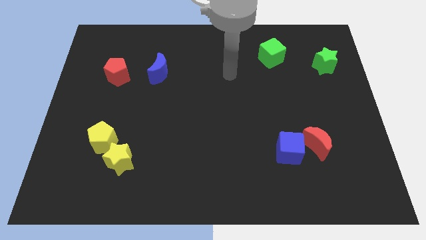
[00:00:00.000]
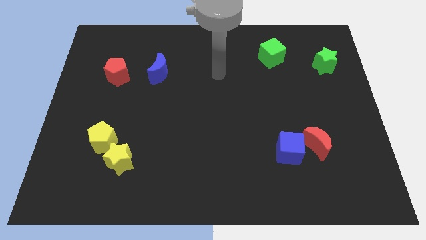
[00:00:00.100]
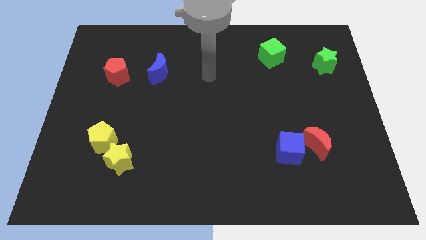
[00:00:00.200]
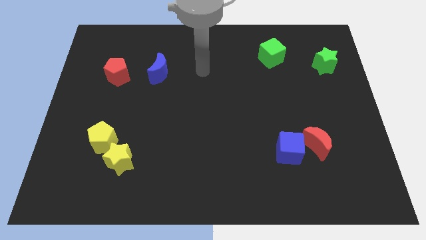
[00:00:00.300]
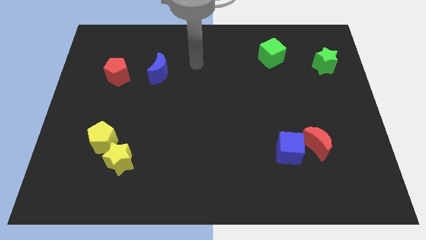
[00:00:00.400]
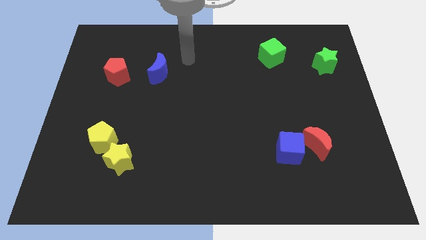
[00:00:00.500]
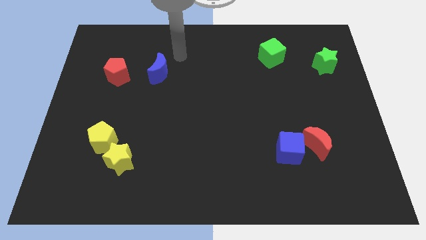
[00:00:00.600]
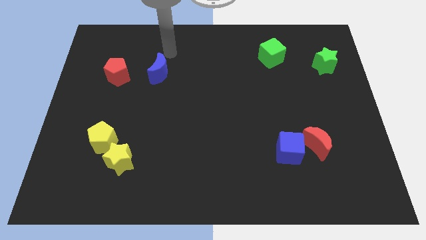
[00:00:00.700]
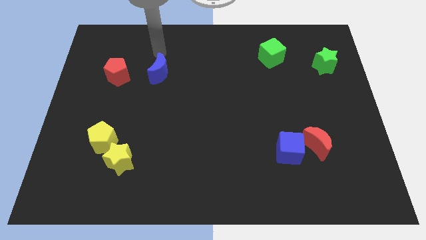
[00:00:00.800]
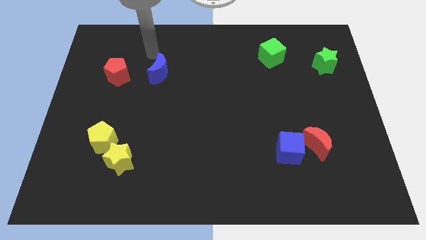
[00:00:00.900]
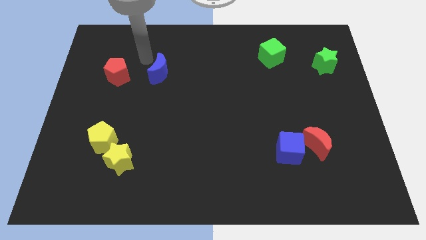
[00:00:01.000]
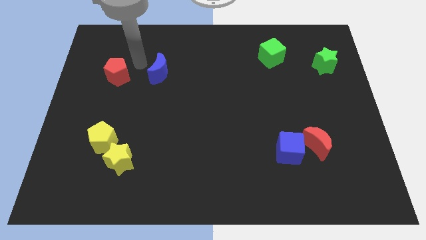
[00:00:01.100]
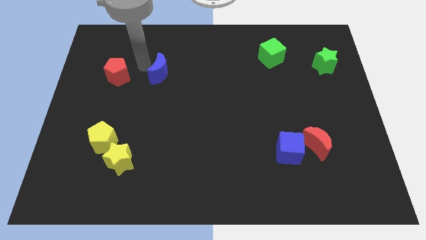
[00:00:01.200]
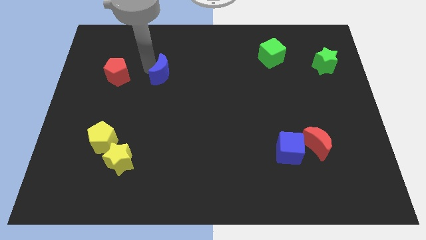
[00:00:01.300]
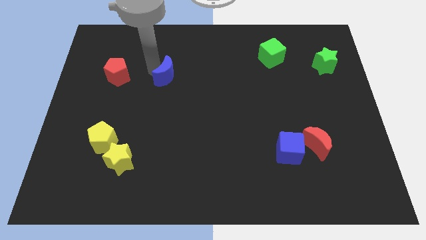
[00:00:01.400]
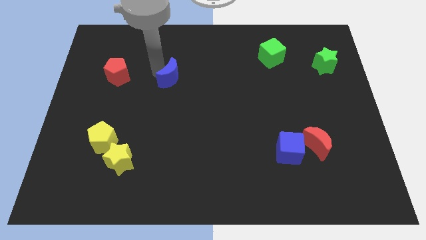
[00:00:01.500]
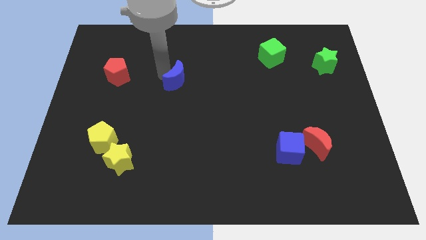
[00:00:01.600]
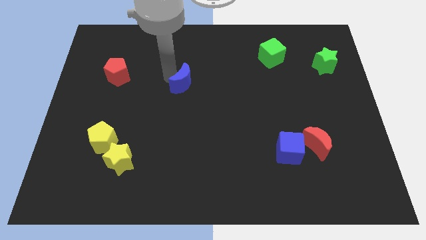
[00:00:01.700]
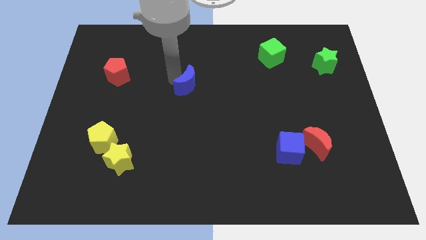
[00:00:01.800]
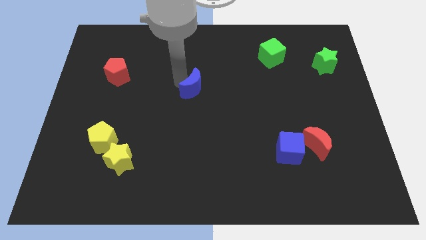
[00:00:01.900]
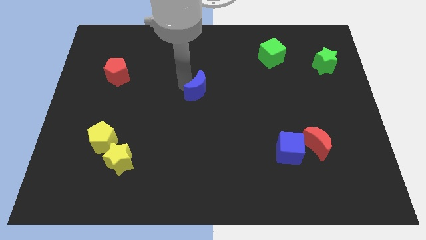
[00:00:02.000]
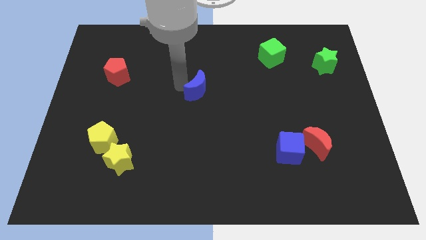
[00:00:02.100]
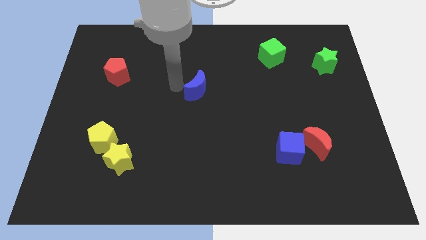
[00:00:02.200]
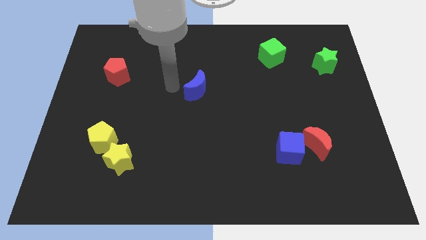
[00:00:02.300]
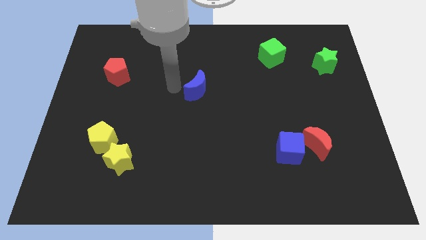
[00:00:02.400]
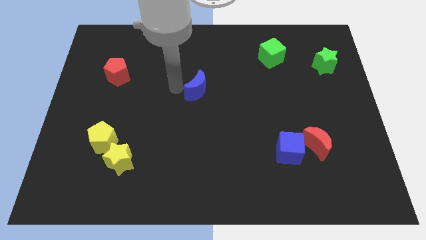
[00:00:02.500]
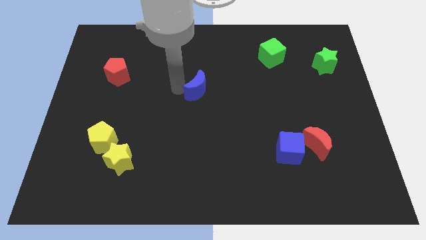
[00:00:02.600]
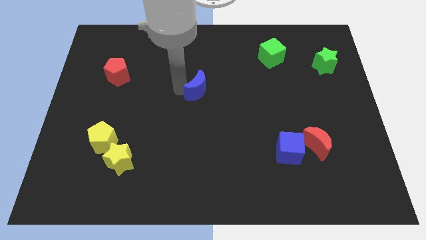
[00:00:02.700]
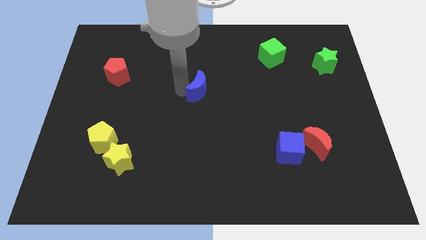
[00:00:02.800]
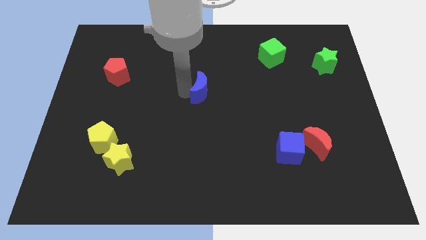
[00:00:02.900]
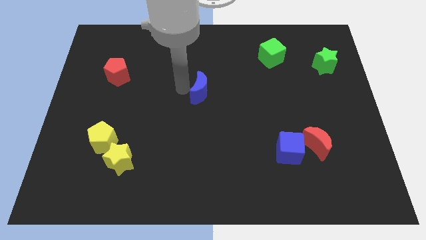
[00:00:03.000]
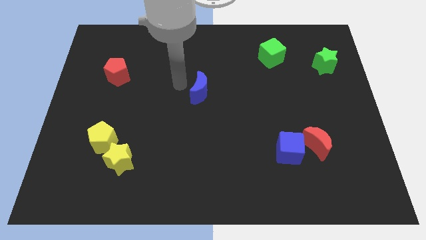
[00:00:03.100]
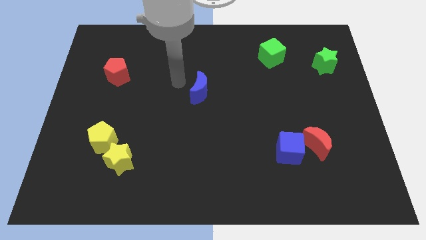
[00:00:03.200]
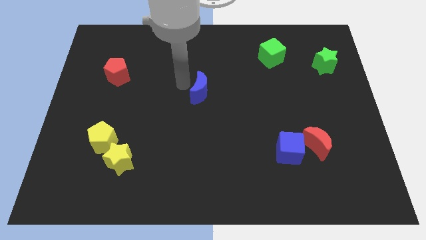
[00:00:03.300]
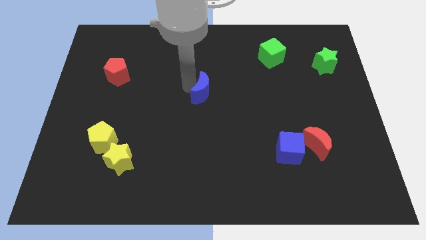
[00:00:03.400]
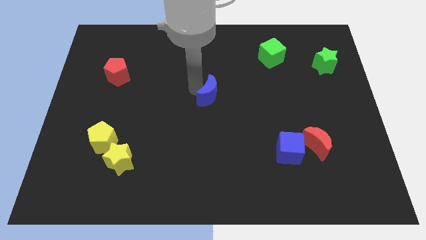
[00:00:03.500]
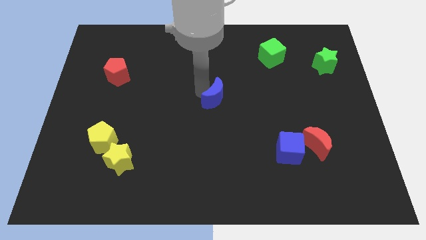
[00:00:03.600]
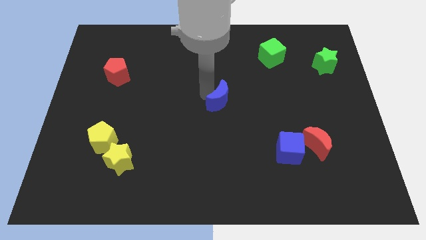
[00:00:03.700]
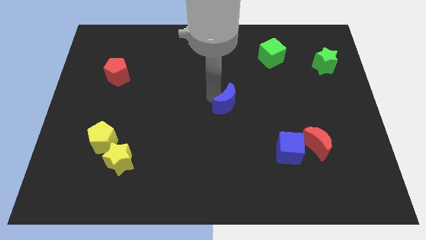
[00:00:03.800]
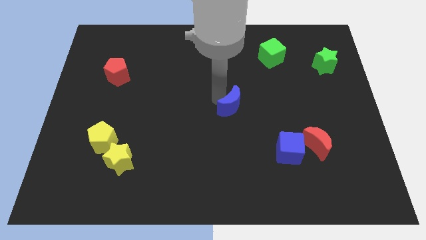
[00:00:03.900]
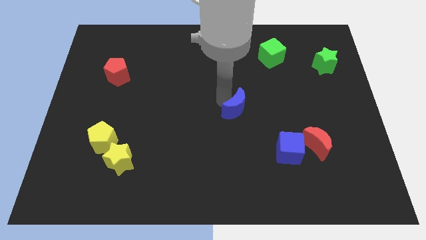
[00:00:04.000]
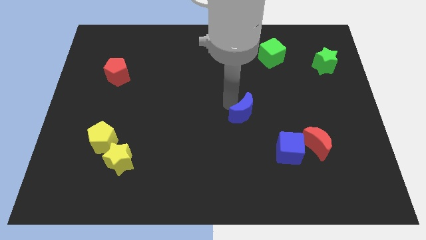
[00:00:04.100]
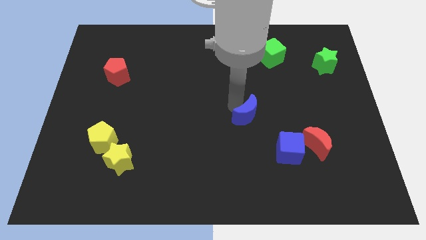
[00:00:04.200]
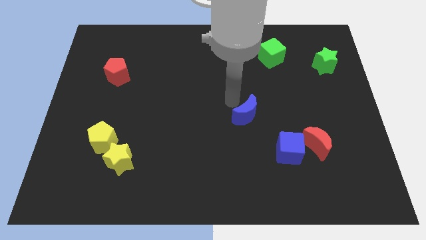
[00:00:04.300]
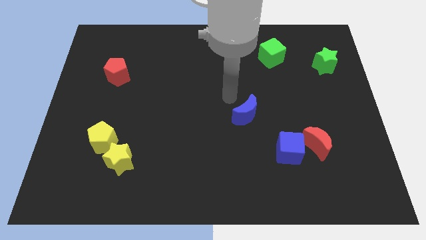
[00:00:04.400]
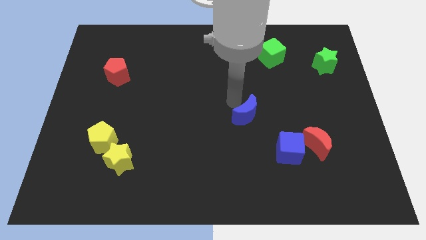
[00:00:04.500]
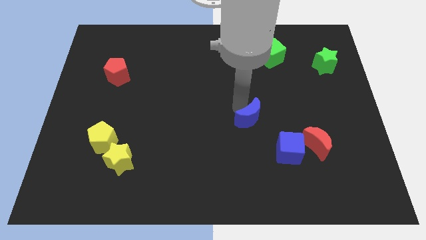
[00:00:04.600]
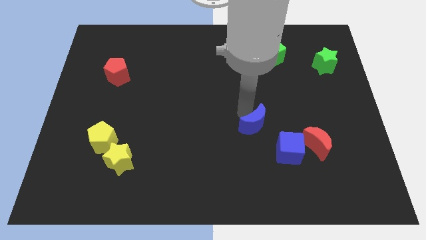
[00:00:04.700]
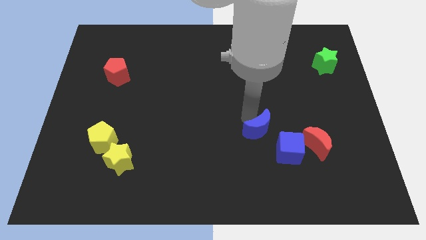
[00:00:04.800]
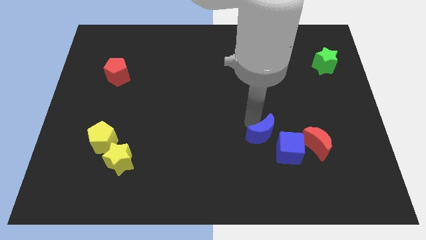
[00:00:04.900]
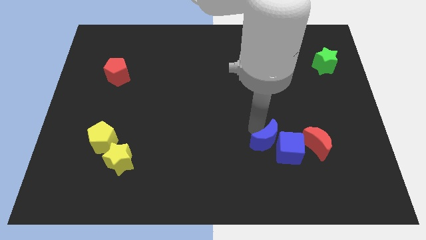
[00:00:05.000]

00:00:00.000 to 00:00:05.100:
push the blue moon towards the blue cube

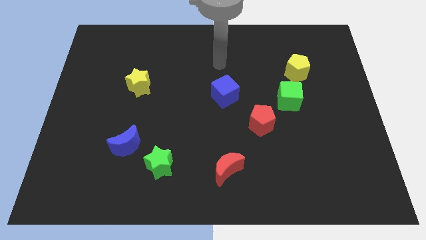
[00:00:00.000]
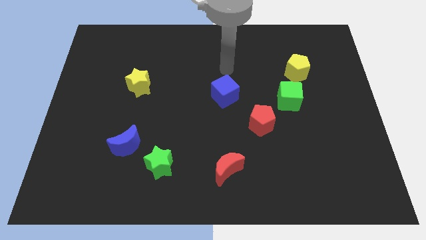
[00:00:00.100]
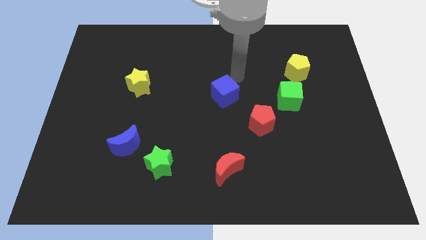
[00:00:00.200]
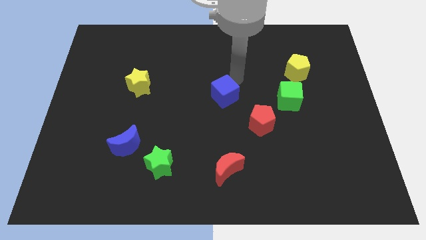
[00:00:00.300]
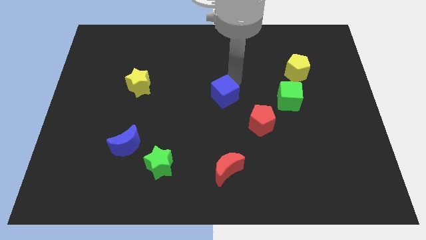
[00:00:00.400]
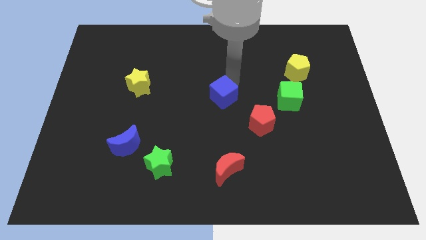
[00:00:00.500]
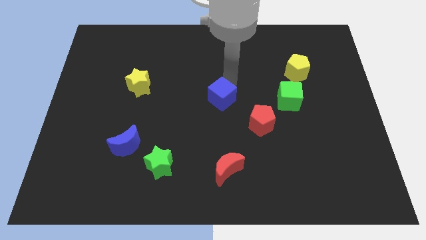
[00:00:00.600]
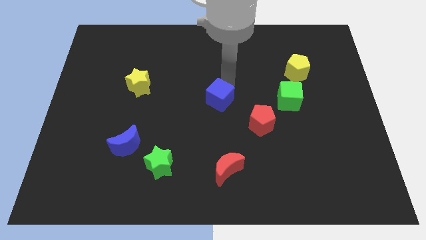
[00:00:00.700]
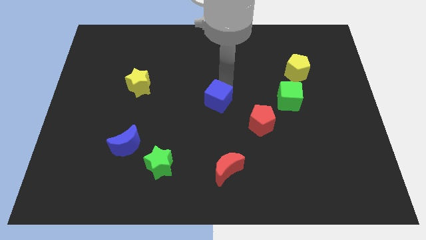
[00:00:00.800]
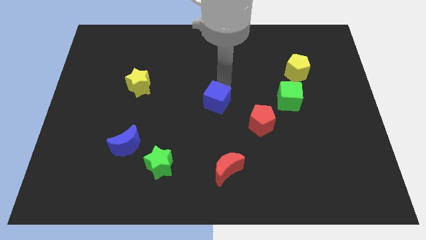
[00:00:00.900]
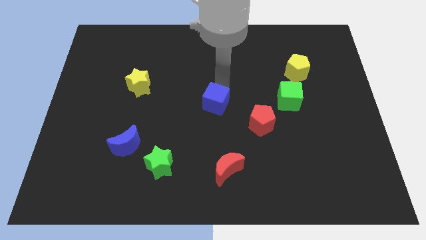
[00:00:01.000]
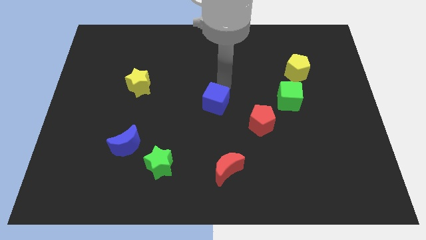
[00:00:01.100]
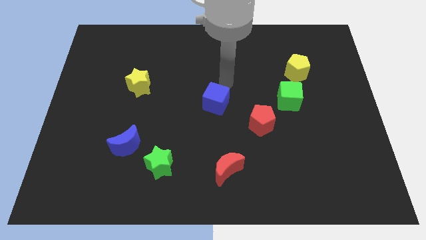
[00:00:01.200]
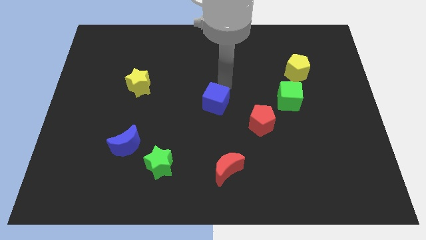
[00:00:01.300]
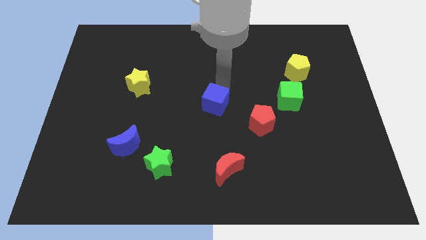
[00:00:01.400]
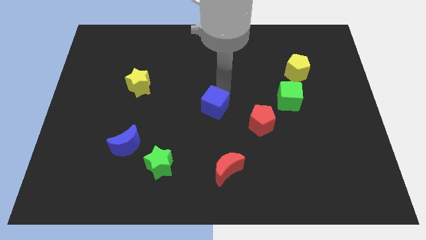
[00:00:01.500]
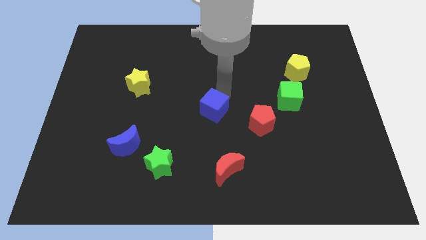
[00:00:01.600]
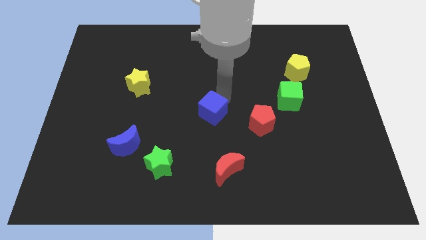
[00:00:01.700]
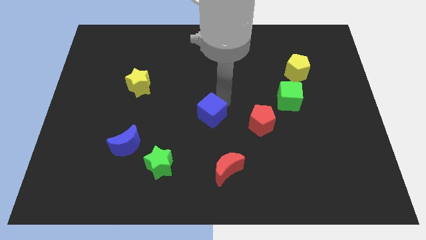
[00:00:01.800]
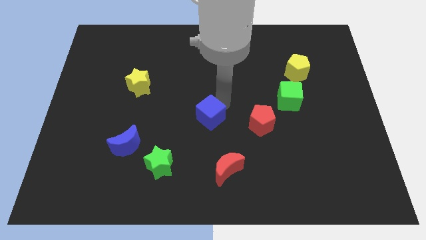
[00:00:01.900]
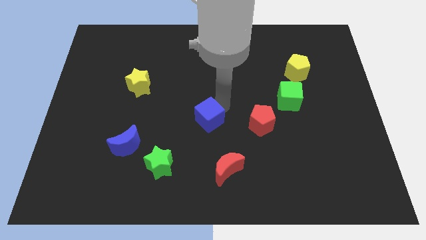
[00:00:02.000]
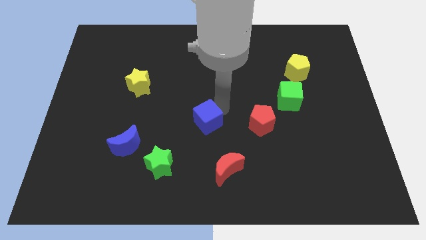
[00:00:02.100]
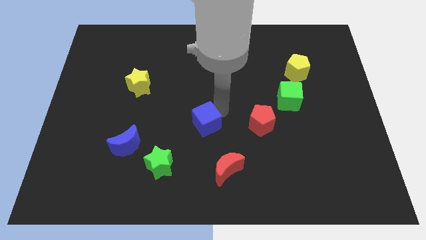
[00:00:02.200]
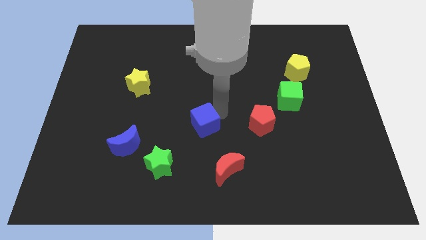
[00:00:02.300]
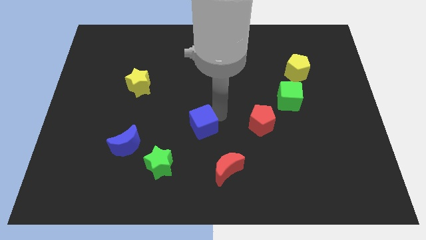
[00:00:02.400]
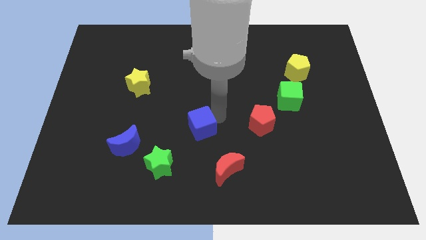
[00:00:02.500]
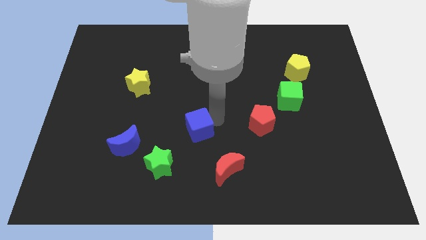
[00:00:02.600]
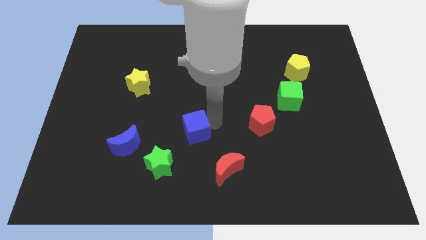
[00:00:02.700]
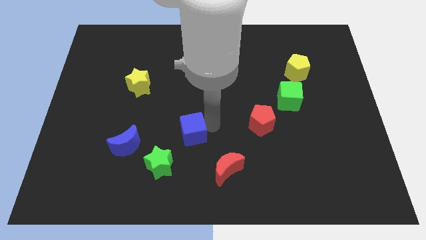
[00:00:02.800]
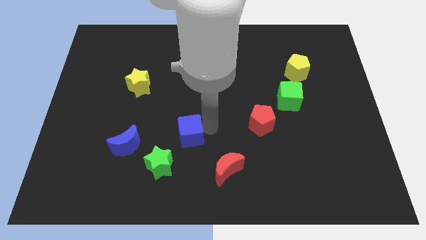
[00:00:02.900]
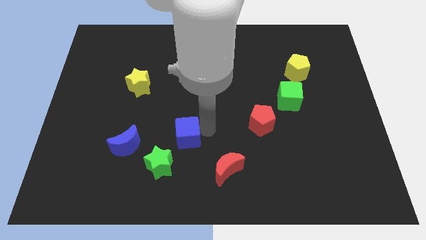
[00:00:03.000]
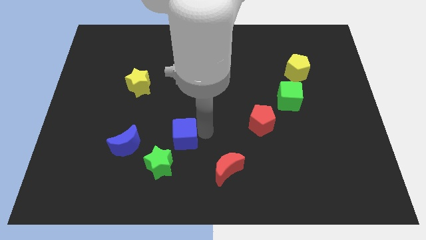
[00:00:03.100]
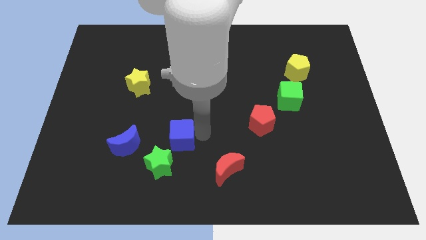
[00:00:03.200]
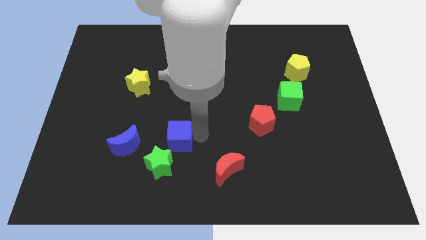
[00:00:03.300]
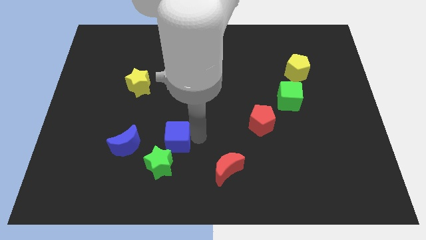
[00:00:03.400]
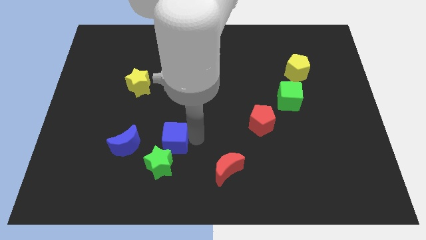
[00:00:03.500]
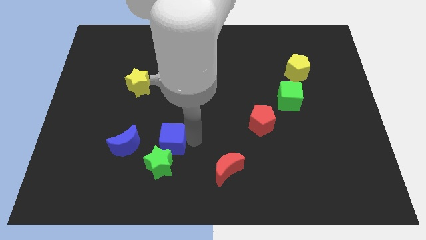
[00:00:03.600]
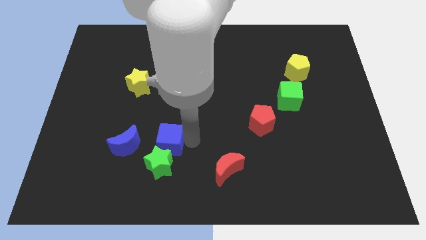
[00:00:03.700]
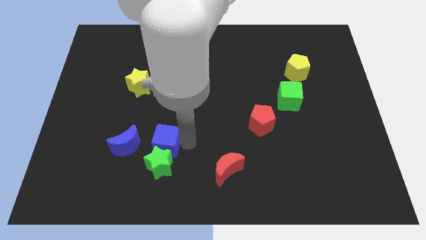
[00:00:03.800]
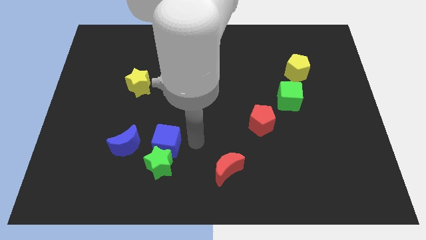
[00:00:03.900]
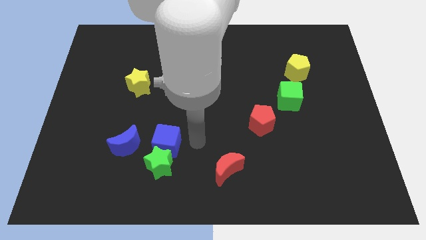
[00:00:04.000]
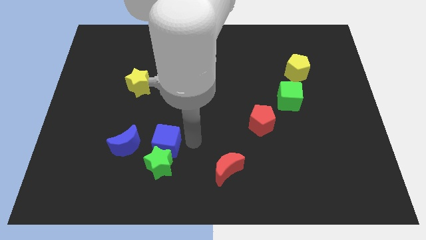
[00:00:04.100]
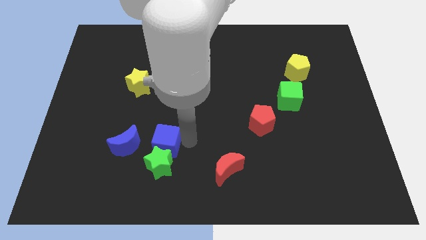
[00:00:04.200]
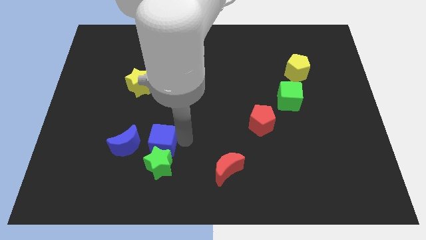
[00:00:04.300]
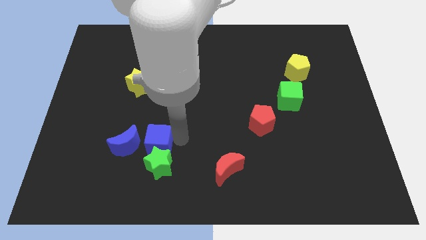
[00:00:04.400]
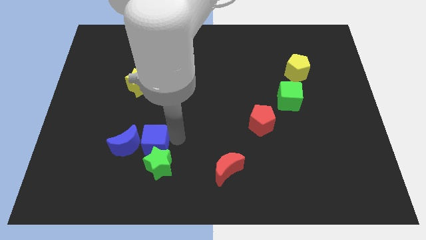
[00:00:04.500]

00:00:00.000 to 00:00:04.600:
put the blue cube to the blue moon
